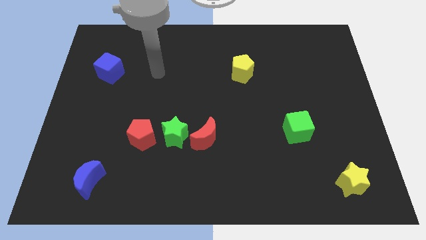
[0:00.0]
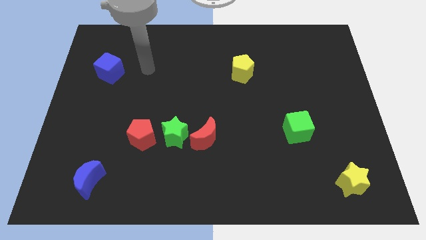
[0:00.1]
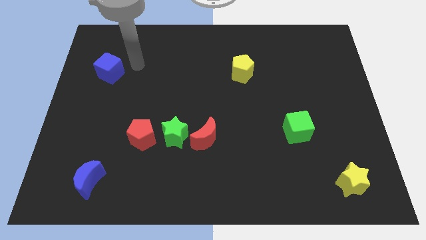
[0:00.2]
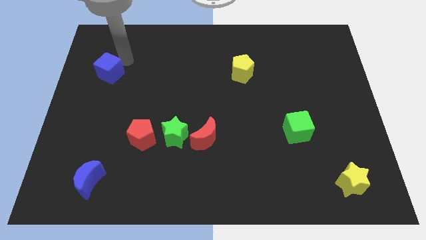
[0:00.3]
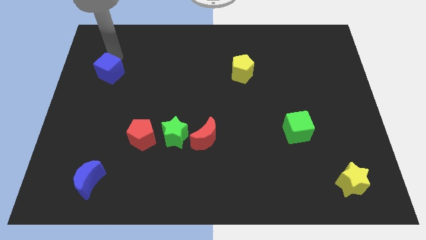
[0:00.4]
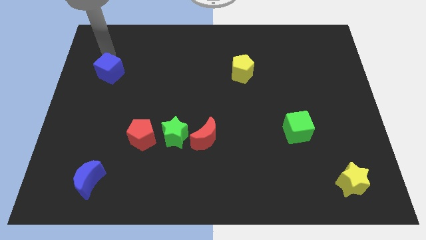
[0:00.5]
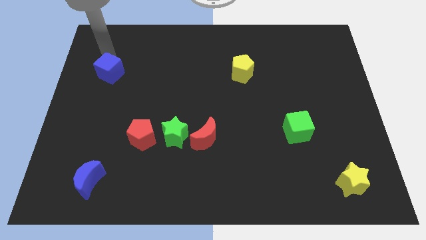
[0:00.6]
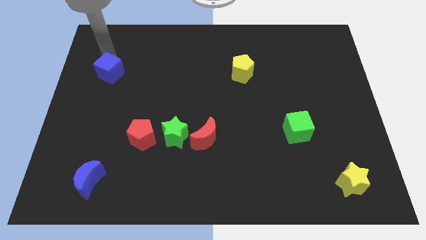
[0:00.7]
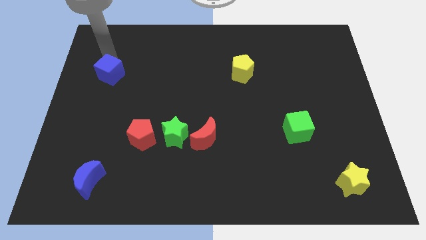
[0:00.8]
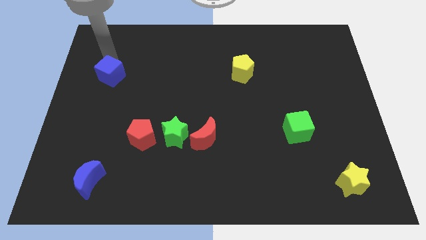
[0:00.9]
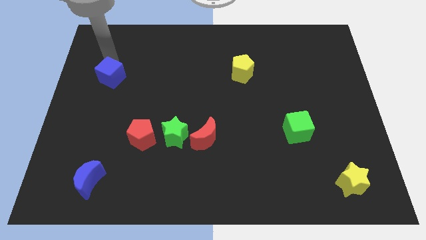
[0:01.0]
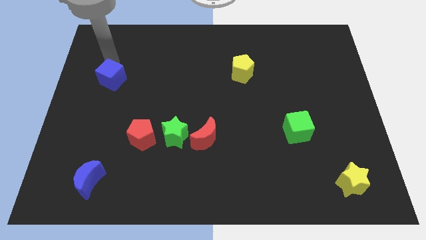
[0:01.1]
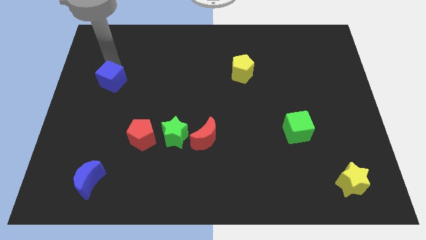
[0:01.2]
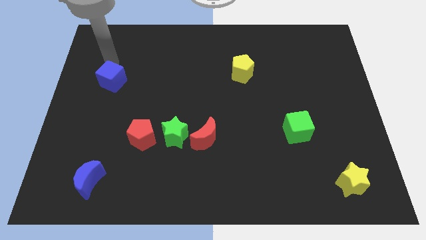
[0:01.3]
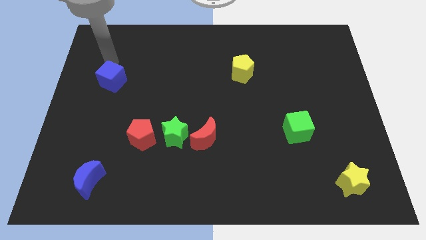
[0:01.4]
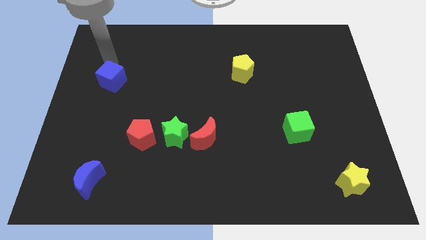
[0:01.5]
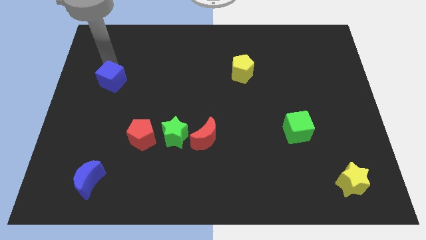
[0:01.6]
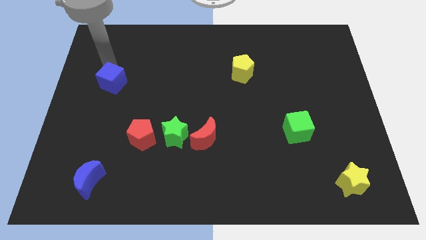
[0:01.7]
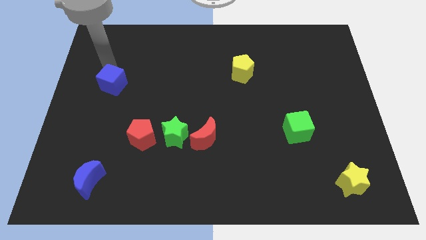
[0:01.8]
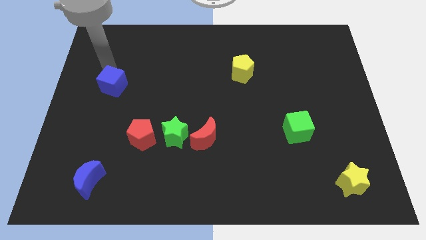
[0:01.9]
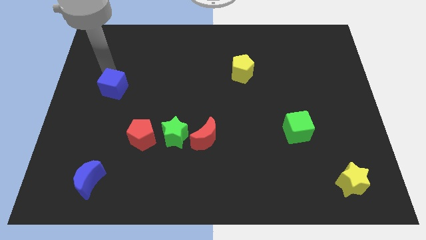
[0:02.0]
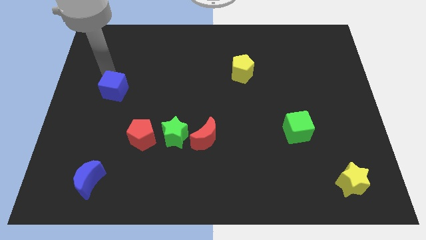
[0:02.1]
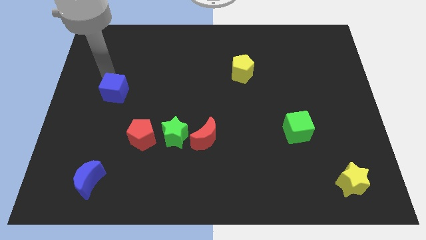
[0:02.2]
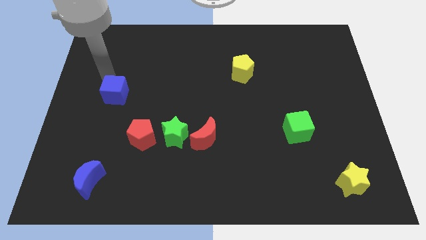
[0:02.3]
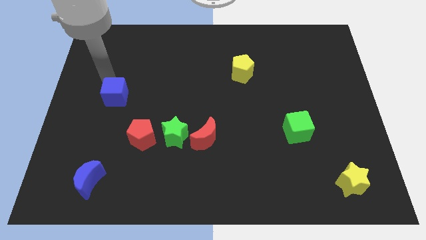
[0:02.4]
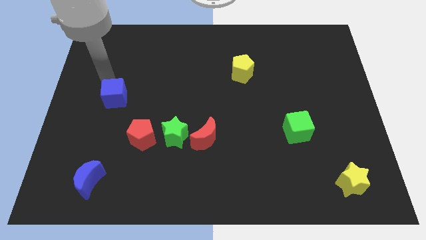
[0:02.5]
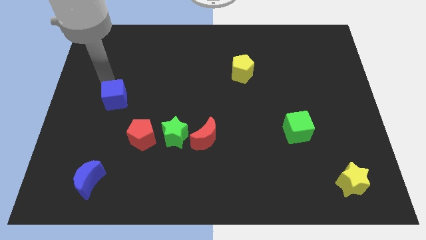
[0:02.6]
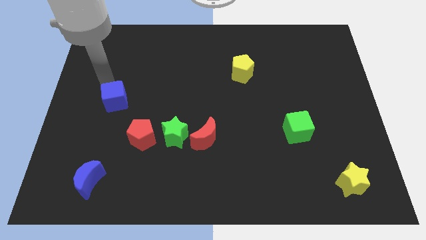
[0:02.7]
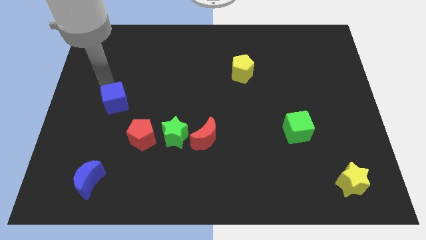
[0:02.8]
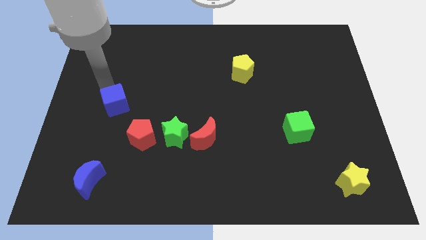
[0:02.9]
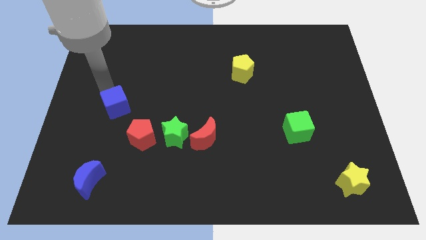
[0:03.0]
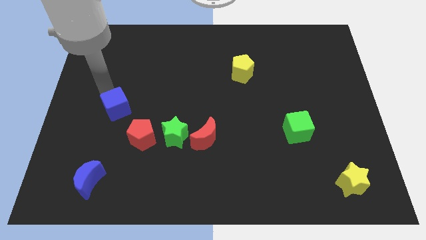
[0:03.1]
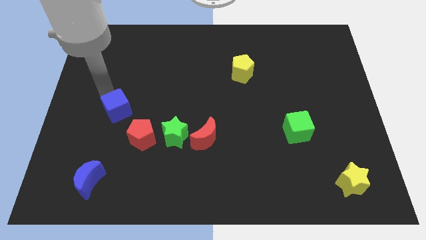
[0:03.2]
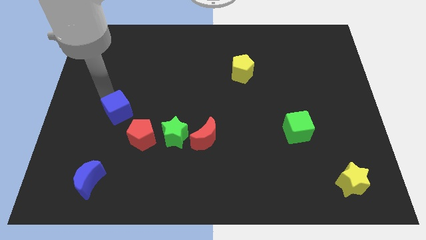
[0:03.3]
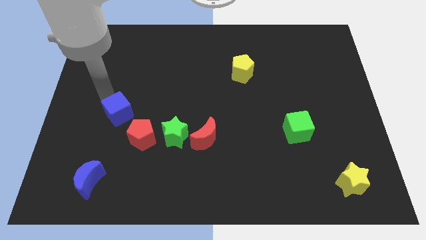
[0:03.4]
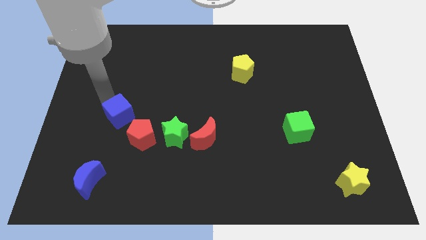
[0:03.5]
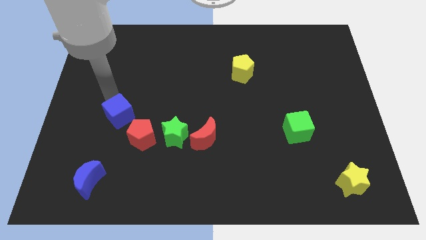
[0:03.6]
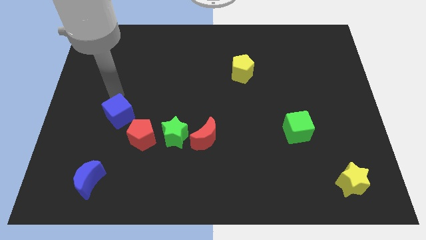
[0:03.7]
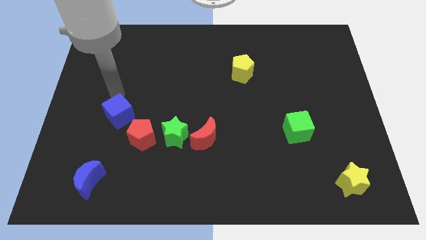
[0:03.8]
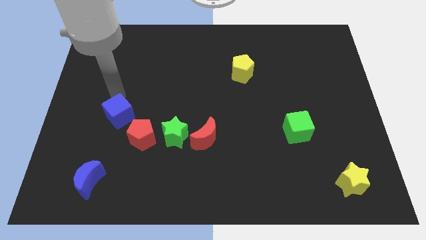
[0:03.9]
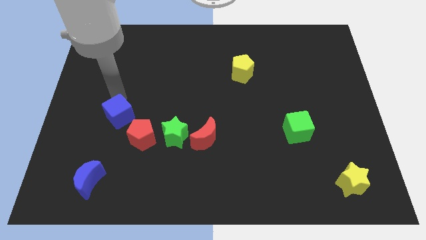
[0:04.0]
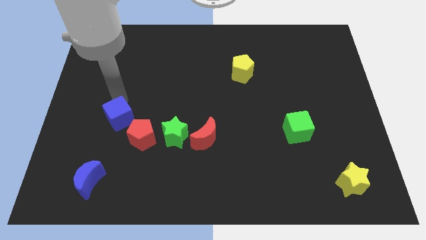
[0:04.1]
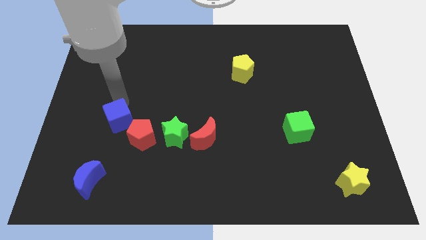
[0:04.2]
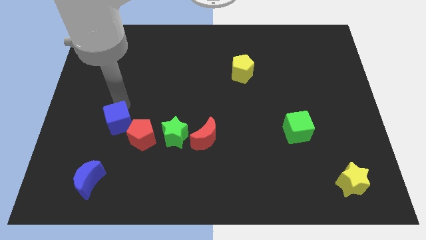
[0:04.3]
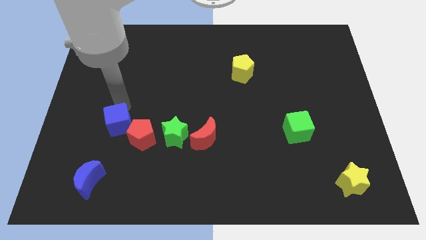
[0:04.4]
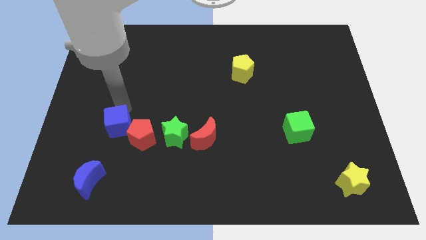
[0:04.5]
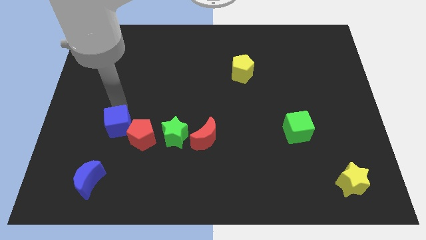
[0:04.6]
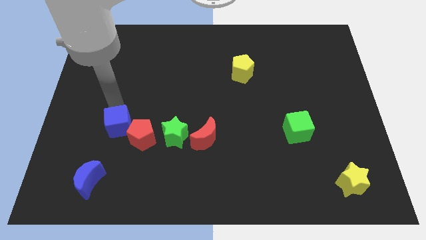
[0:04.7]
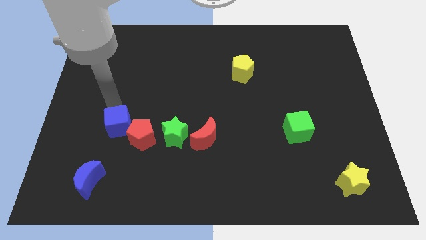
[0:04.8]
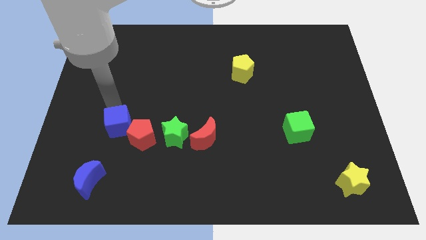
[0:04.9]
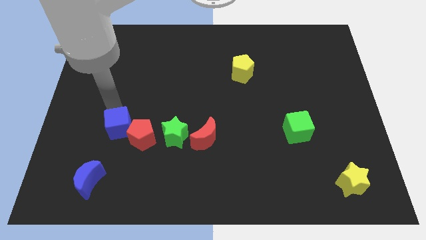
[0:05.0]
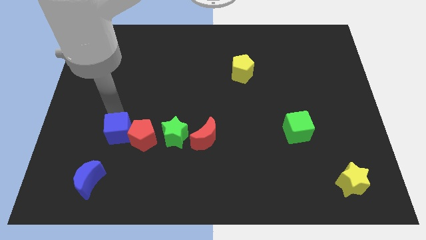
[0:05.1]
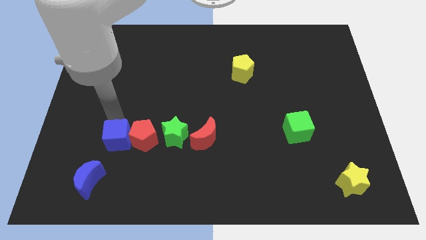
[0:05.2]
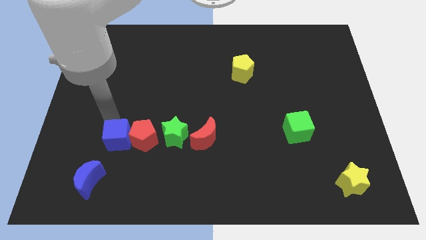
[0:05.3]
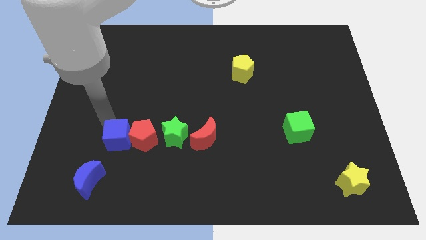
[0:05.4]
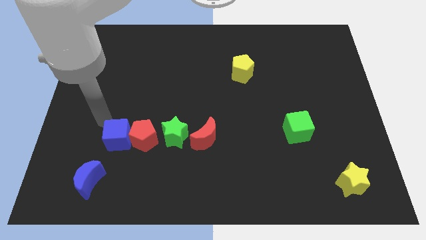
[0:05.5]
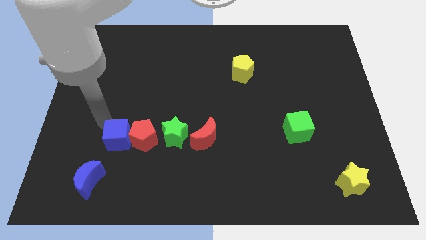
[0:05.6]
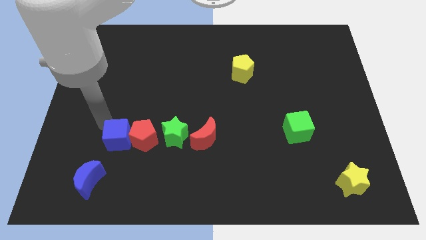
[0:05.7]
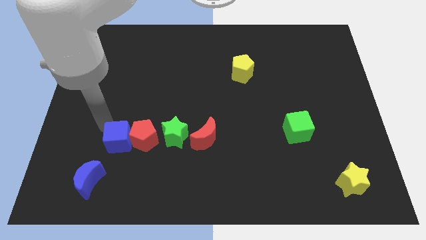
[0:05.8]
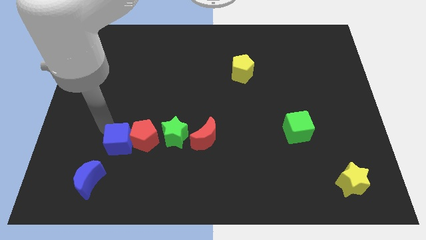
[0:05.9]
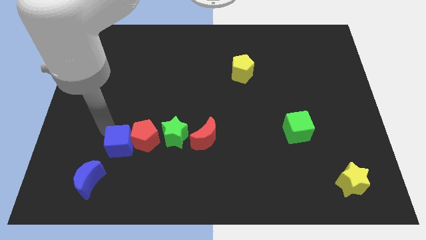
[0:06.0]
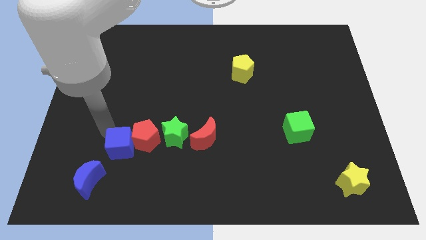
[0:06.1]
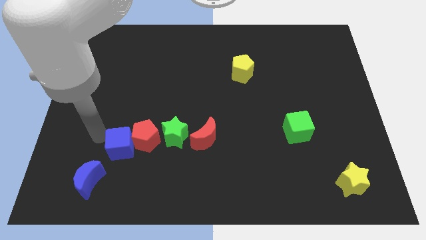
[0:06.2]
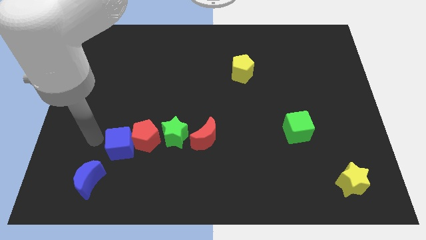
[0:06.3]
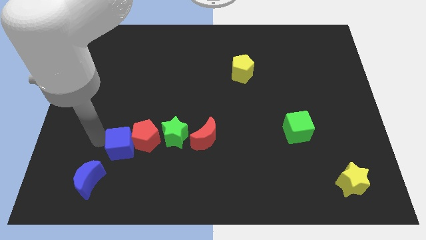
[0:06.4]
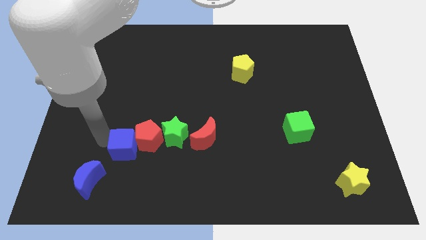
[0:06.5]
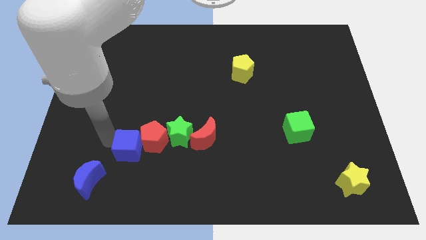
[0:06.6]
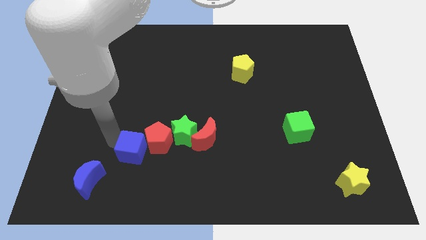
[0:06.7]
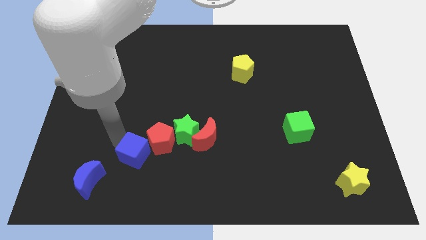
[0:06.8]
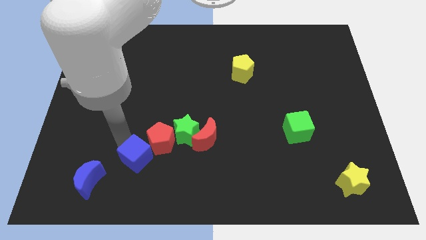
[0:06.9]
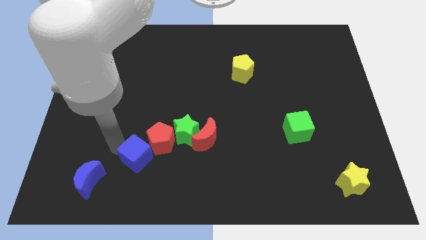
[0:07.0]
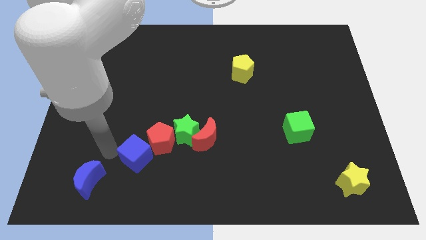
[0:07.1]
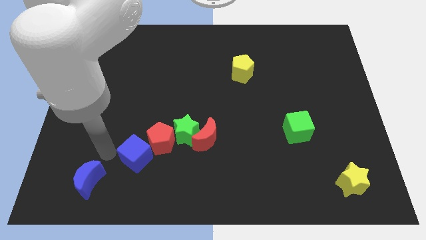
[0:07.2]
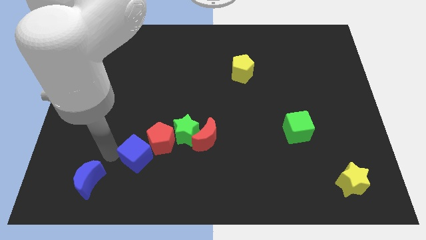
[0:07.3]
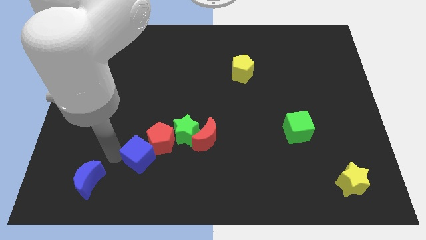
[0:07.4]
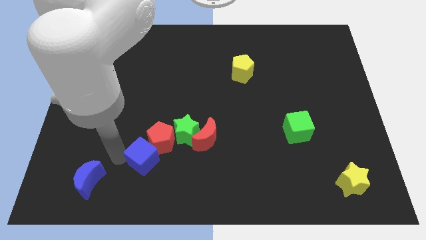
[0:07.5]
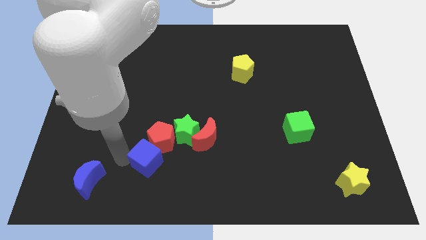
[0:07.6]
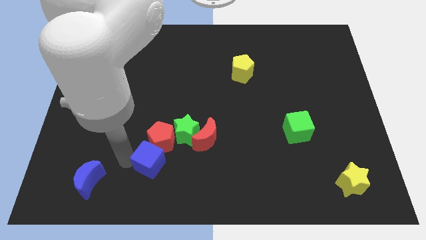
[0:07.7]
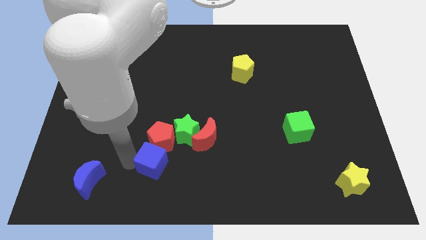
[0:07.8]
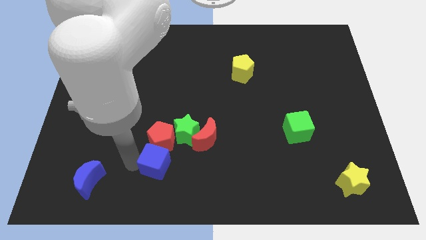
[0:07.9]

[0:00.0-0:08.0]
slide the blue cube to the bottom right side of the red pentagon
